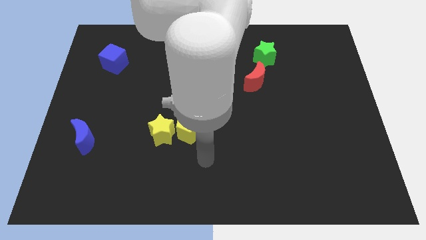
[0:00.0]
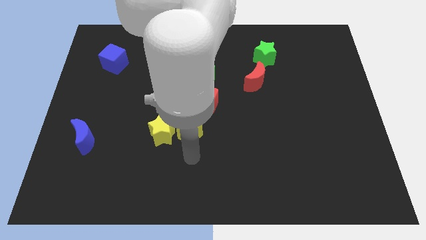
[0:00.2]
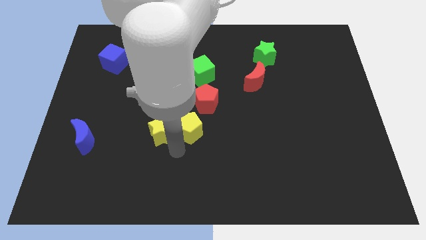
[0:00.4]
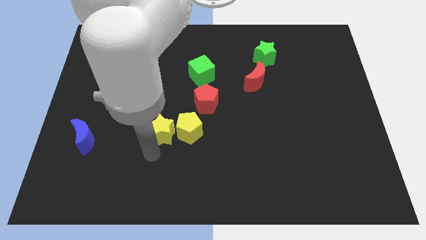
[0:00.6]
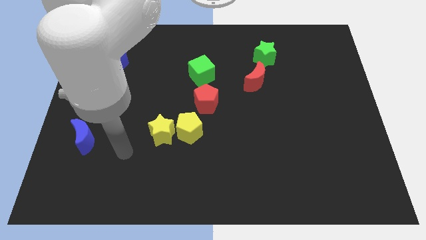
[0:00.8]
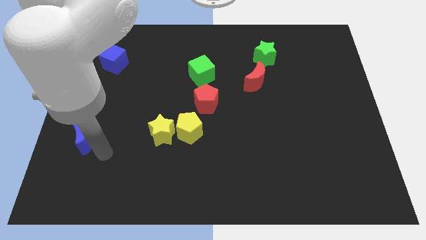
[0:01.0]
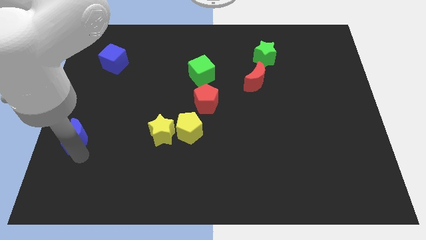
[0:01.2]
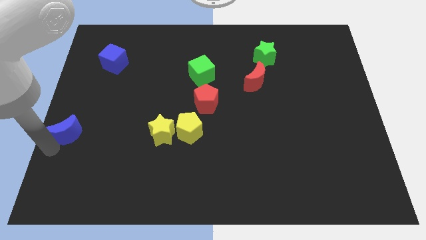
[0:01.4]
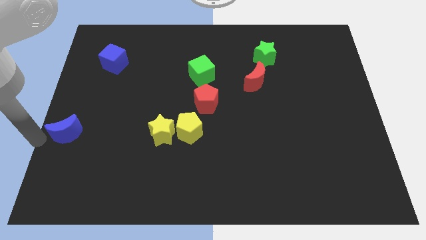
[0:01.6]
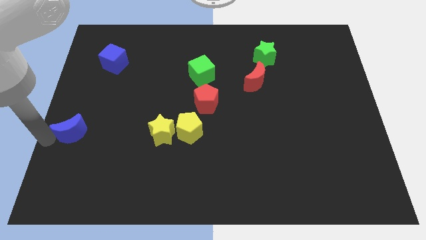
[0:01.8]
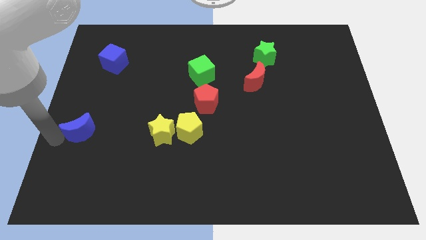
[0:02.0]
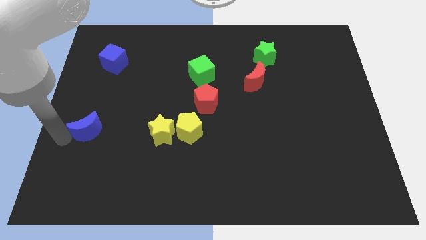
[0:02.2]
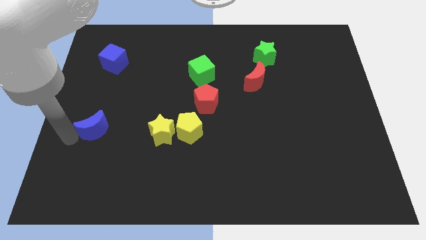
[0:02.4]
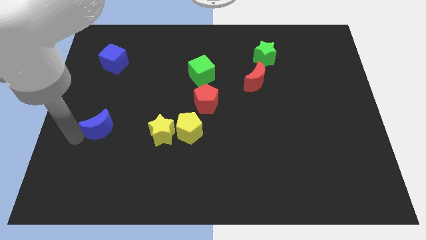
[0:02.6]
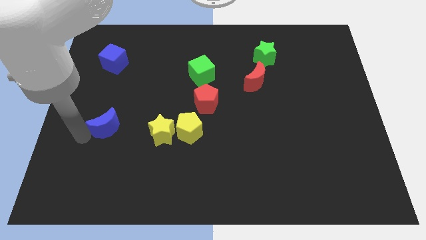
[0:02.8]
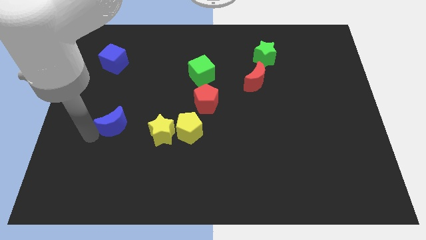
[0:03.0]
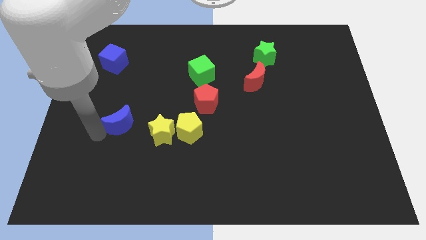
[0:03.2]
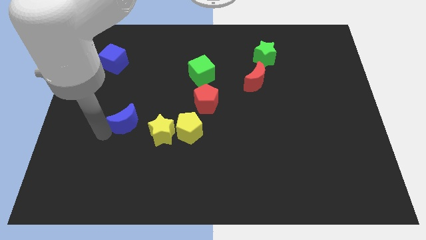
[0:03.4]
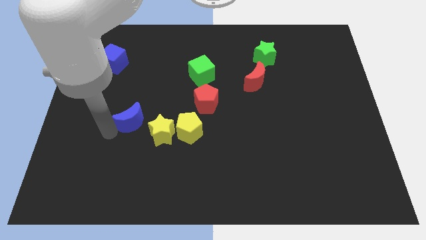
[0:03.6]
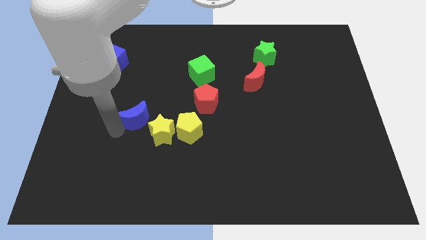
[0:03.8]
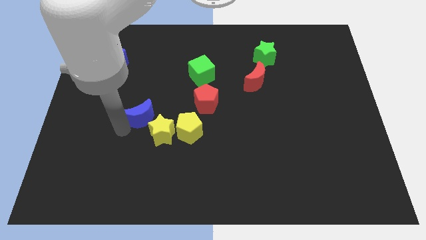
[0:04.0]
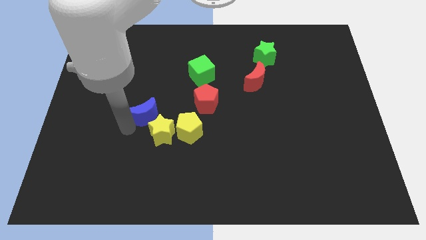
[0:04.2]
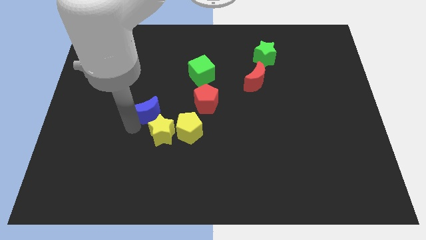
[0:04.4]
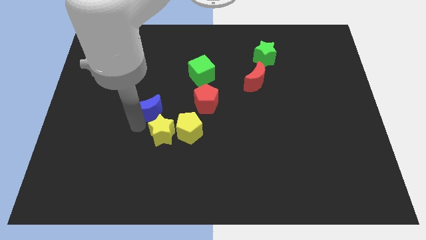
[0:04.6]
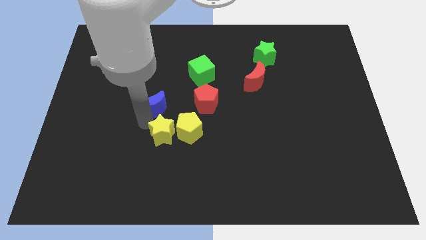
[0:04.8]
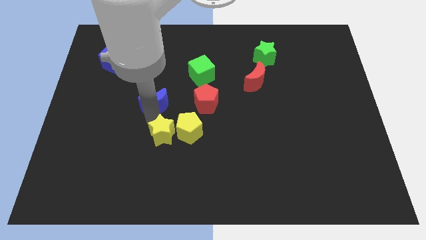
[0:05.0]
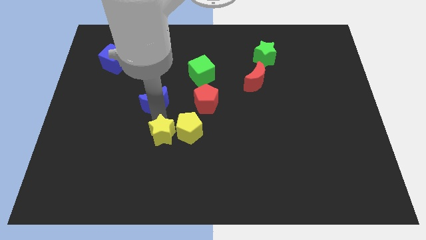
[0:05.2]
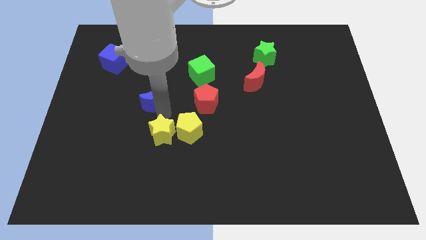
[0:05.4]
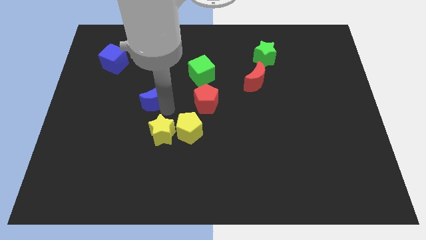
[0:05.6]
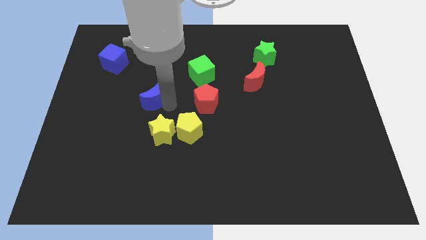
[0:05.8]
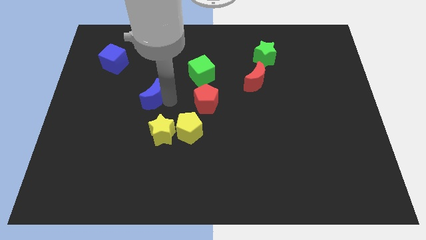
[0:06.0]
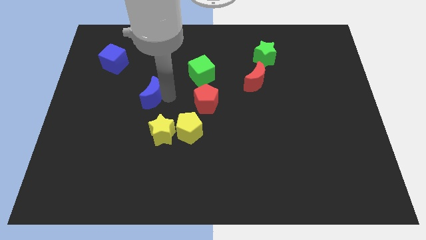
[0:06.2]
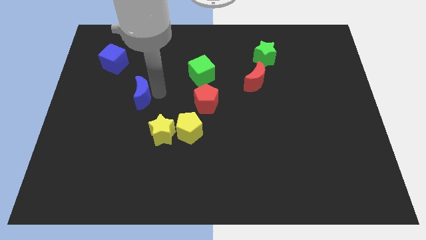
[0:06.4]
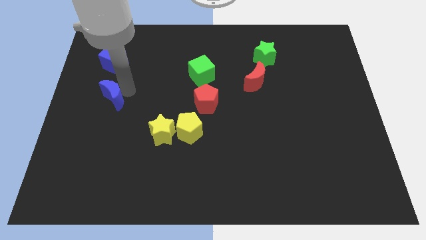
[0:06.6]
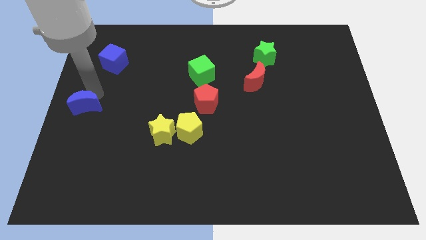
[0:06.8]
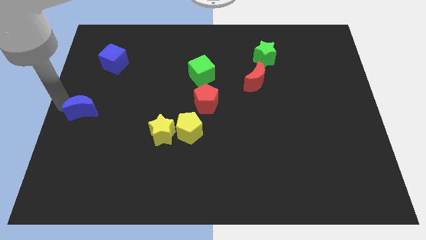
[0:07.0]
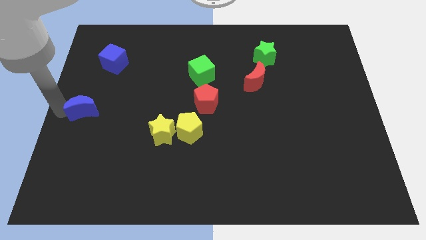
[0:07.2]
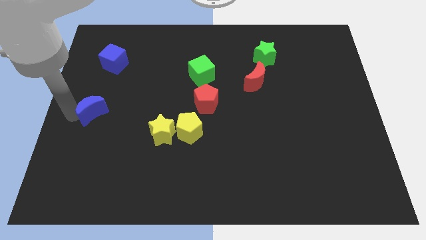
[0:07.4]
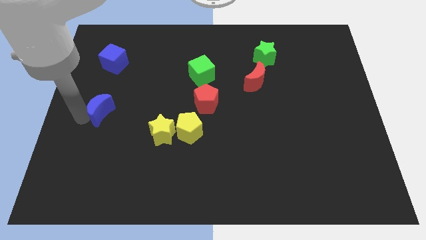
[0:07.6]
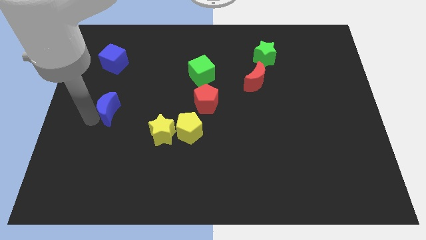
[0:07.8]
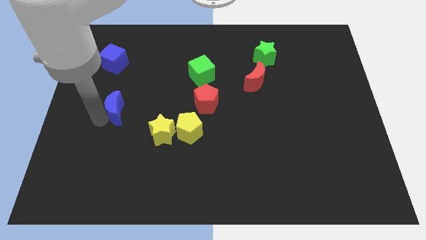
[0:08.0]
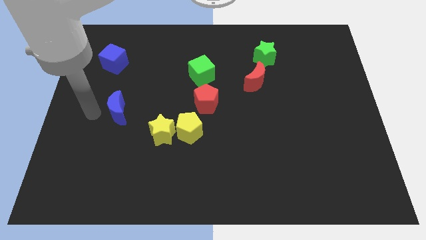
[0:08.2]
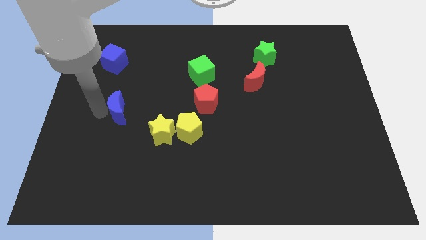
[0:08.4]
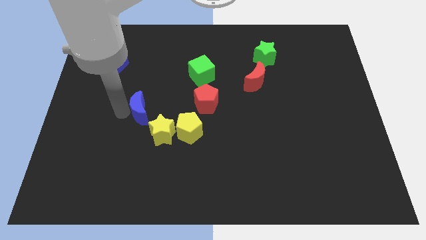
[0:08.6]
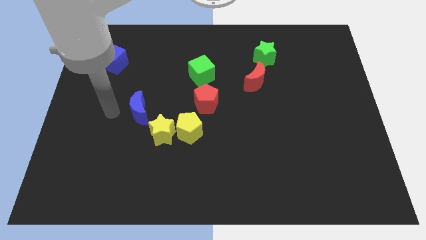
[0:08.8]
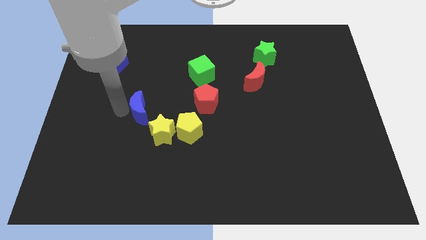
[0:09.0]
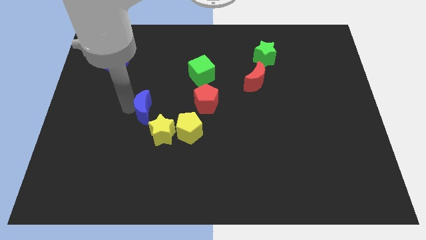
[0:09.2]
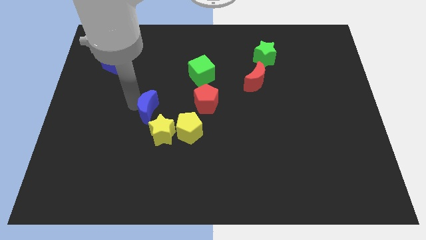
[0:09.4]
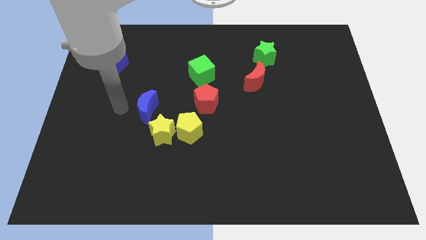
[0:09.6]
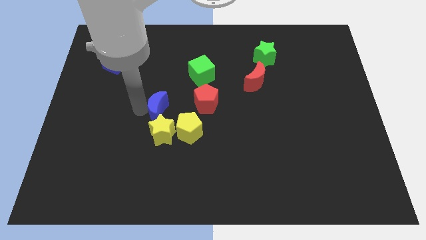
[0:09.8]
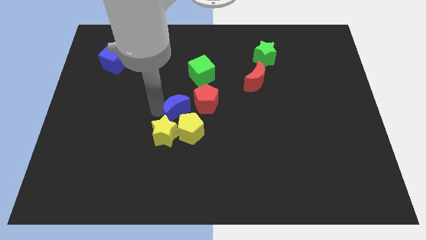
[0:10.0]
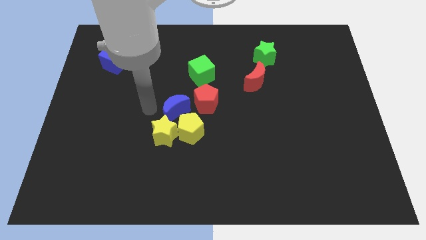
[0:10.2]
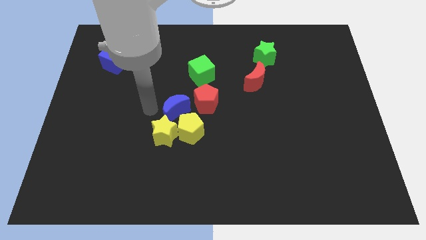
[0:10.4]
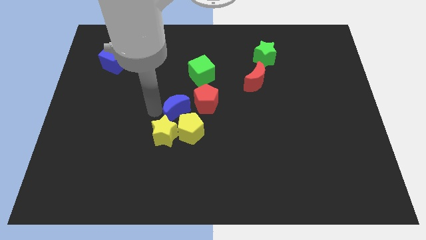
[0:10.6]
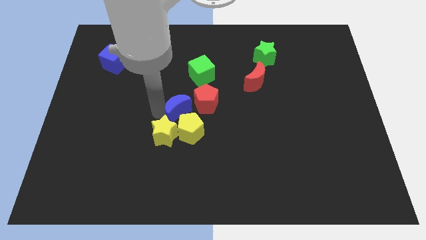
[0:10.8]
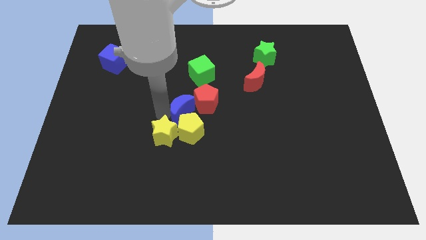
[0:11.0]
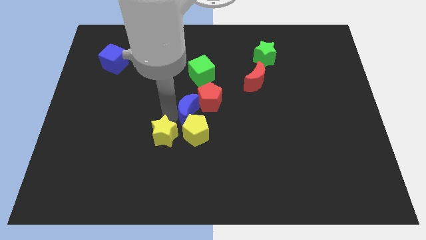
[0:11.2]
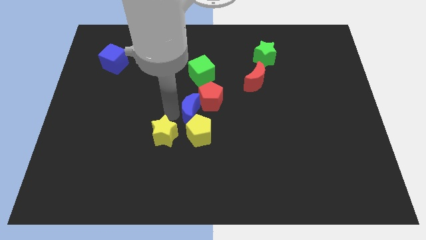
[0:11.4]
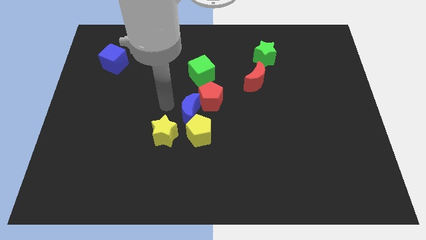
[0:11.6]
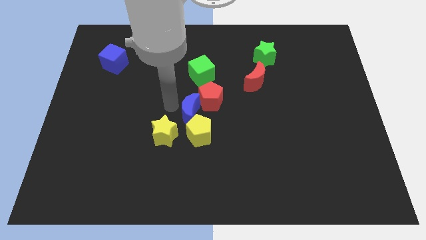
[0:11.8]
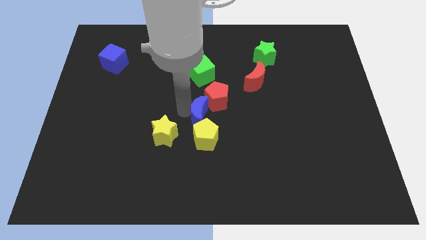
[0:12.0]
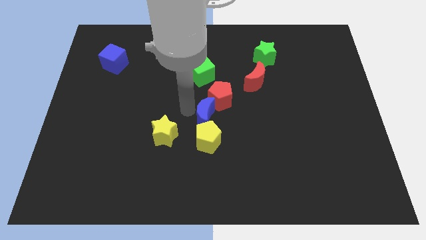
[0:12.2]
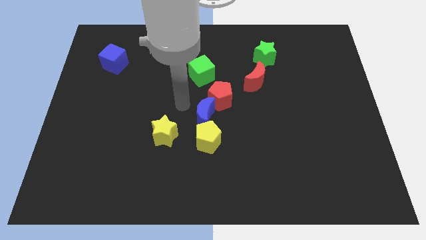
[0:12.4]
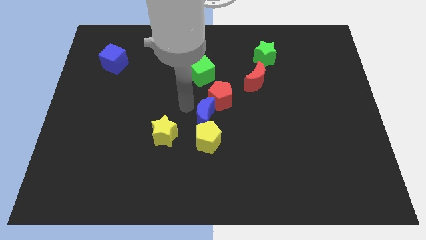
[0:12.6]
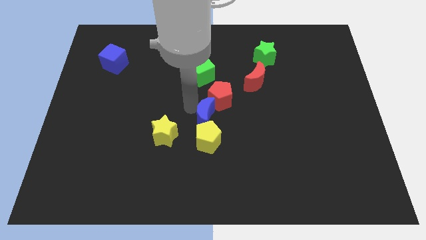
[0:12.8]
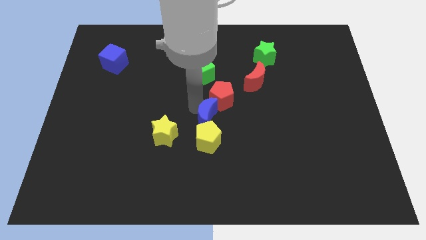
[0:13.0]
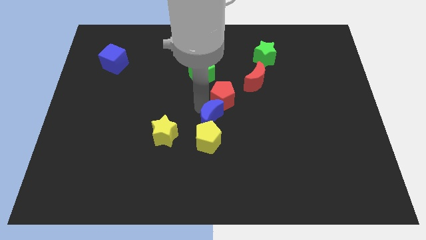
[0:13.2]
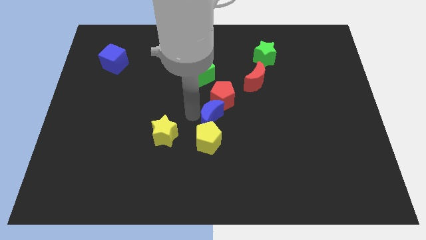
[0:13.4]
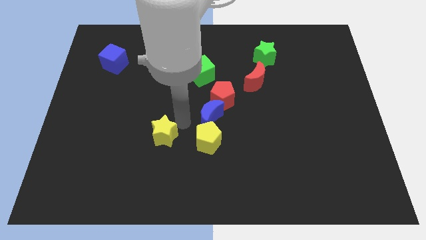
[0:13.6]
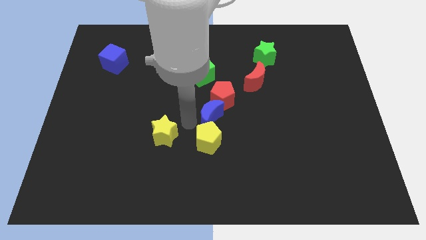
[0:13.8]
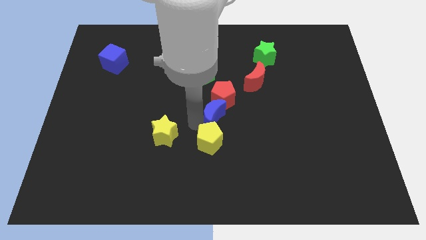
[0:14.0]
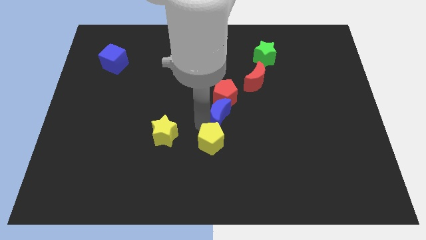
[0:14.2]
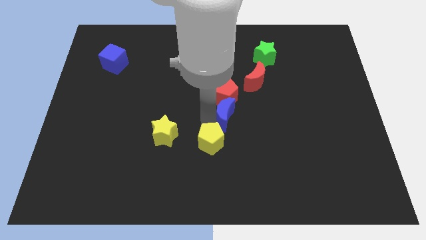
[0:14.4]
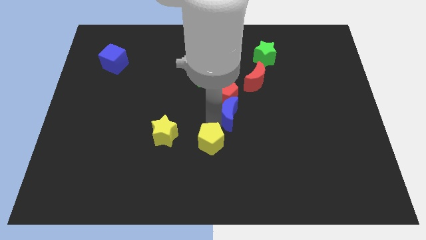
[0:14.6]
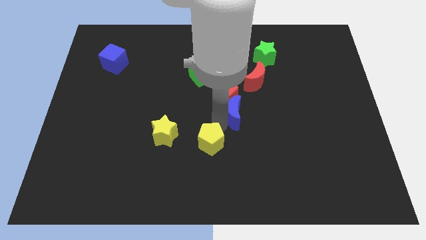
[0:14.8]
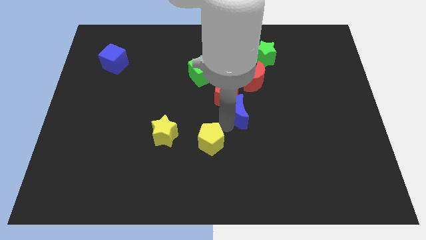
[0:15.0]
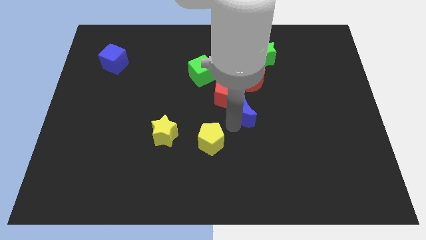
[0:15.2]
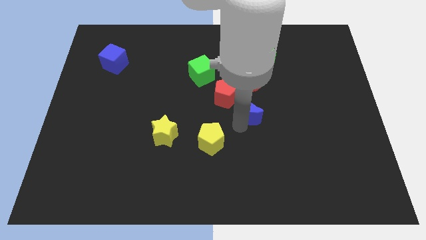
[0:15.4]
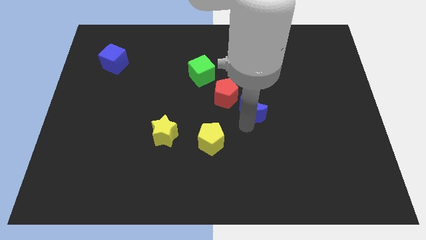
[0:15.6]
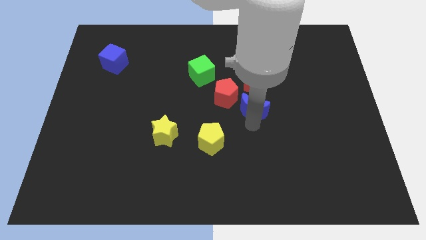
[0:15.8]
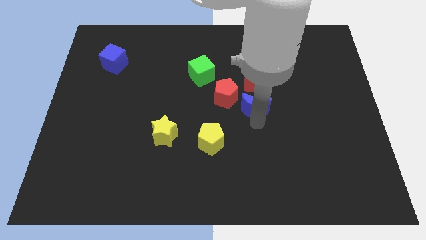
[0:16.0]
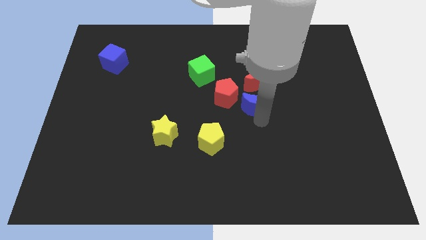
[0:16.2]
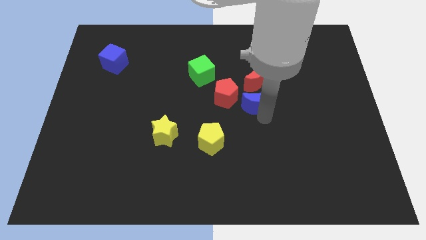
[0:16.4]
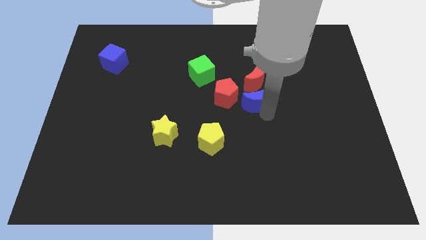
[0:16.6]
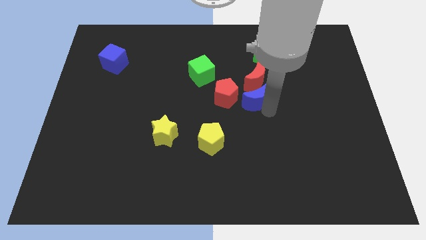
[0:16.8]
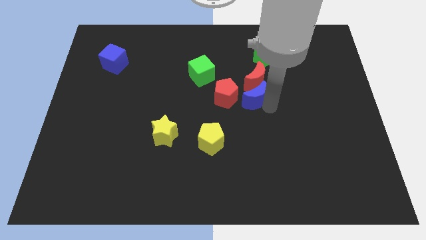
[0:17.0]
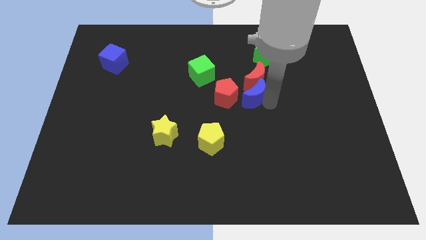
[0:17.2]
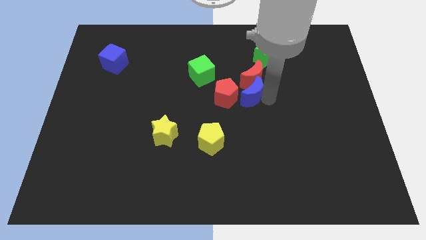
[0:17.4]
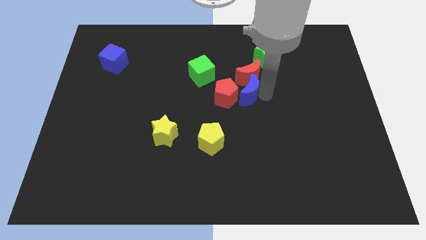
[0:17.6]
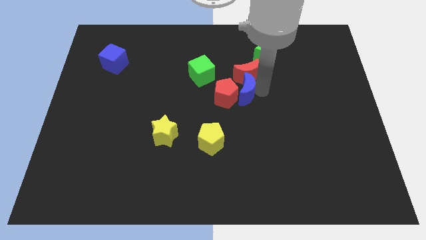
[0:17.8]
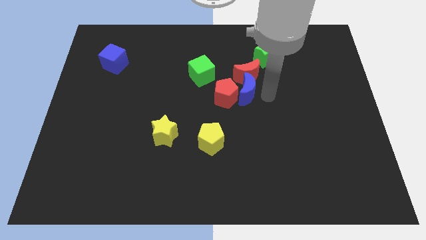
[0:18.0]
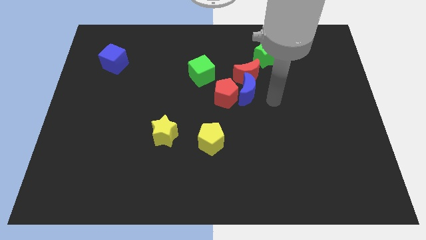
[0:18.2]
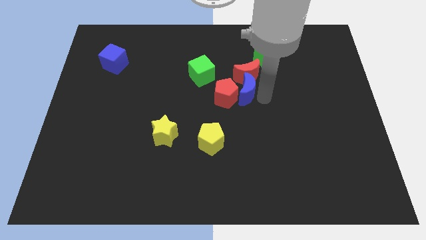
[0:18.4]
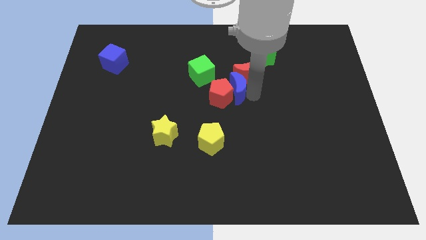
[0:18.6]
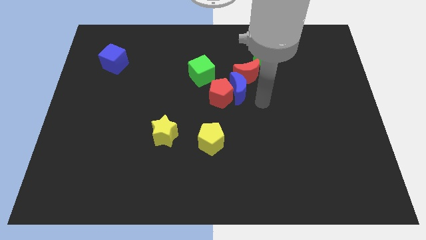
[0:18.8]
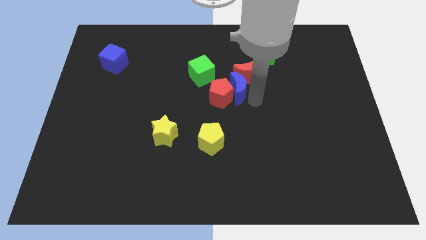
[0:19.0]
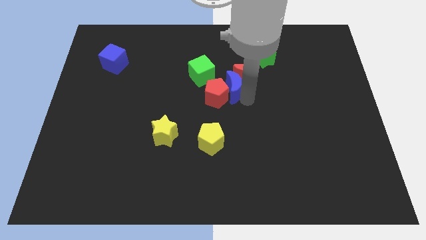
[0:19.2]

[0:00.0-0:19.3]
slide the blue moon to the left of the red moon
